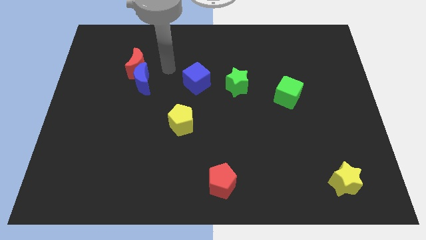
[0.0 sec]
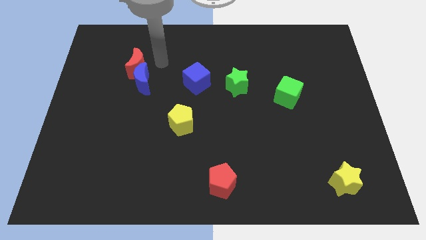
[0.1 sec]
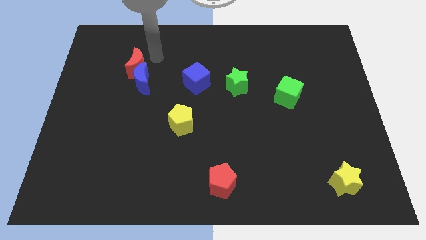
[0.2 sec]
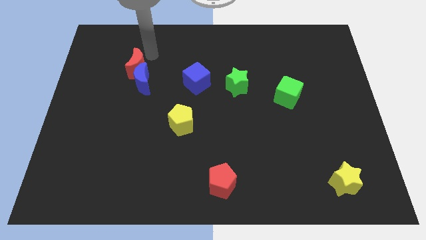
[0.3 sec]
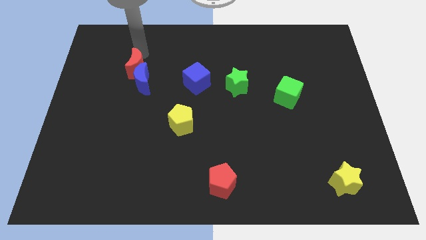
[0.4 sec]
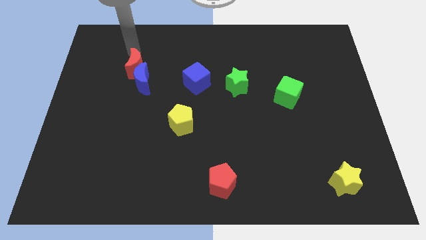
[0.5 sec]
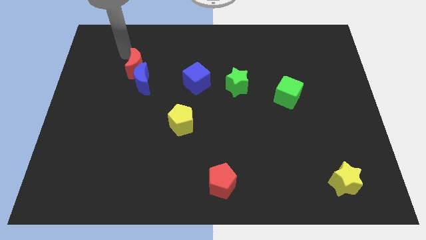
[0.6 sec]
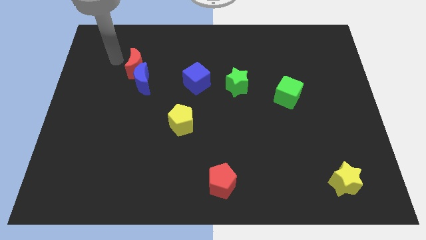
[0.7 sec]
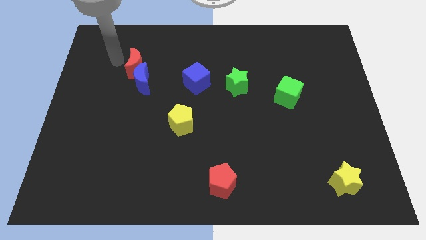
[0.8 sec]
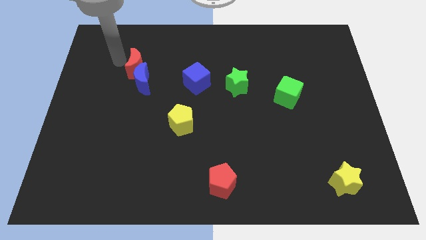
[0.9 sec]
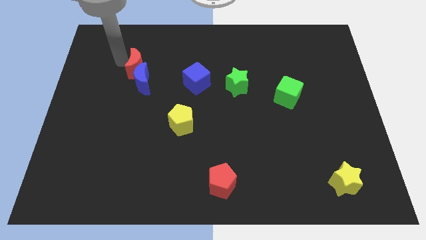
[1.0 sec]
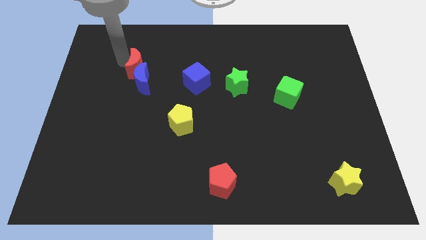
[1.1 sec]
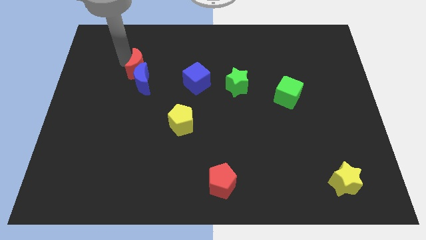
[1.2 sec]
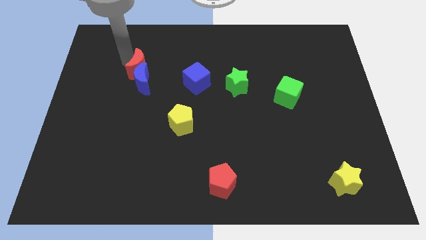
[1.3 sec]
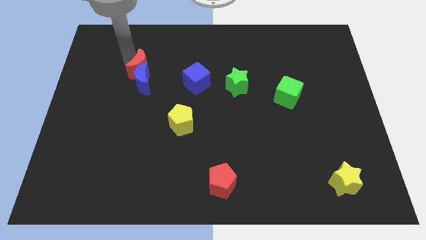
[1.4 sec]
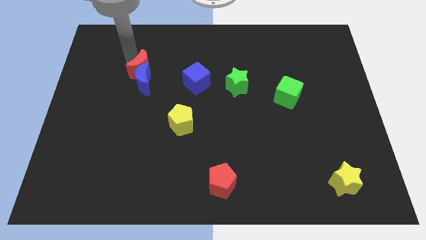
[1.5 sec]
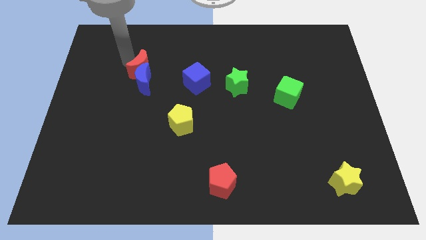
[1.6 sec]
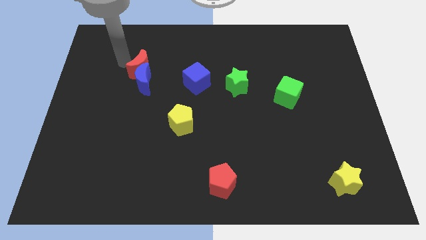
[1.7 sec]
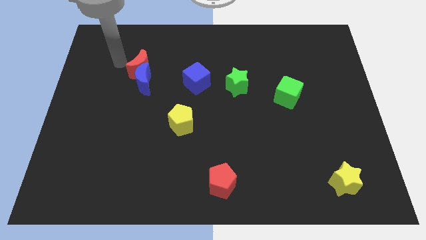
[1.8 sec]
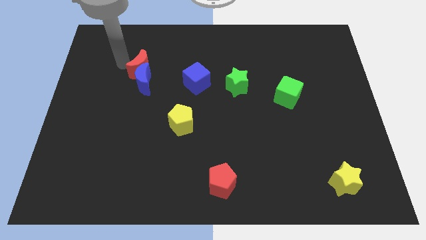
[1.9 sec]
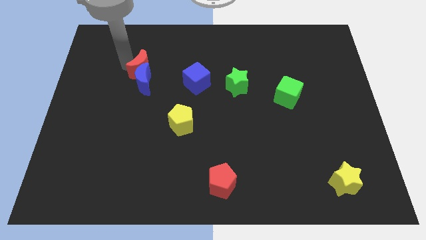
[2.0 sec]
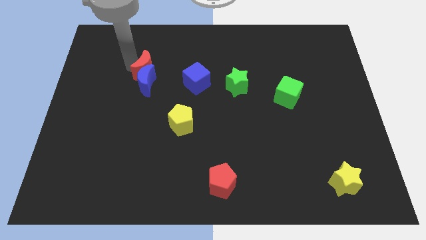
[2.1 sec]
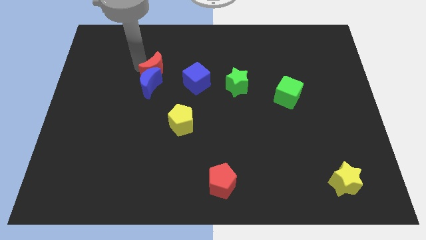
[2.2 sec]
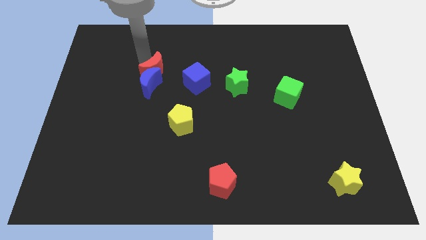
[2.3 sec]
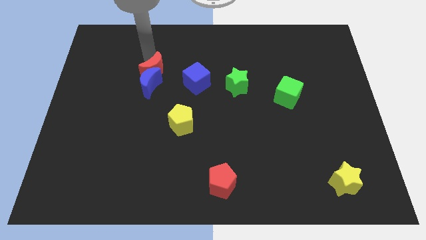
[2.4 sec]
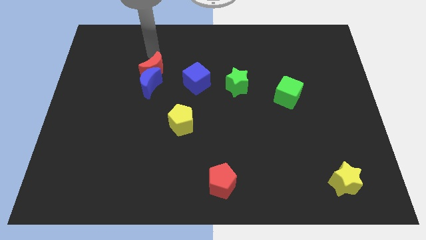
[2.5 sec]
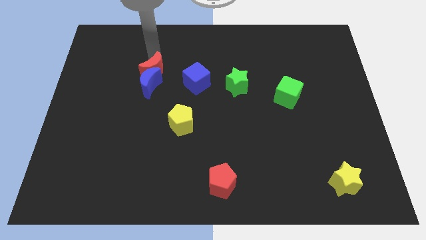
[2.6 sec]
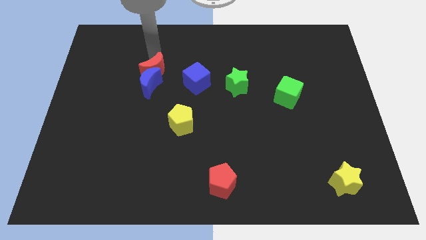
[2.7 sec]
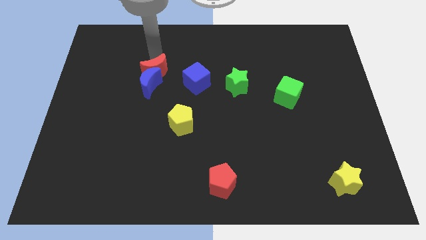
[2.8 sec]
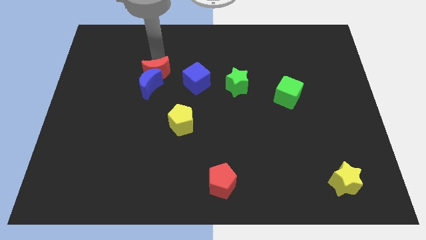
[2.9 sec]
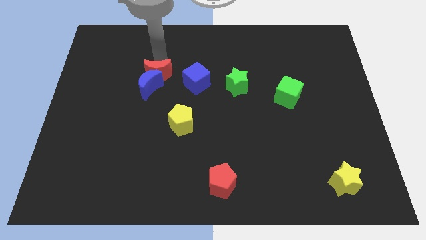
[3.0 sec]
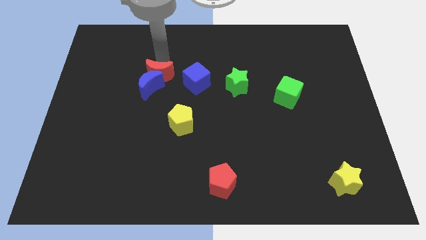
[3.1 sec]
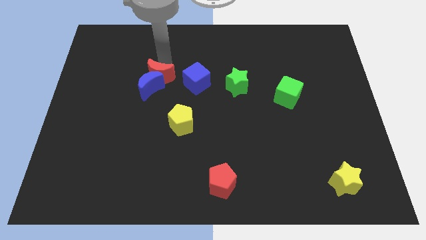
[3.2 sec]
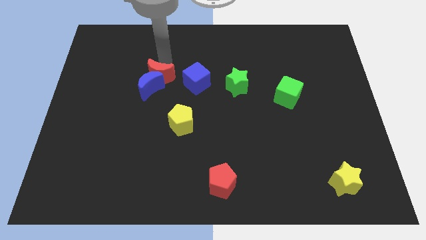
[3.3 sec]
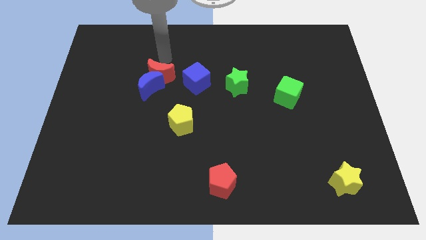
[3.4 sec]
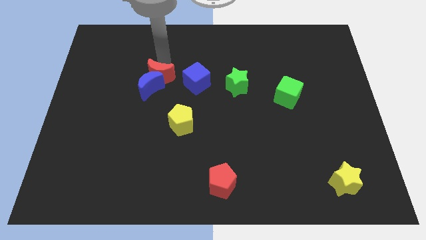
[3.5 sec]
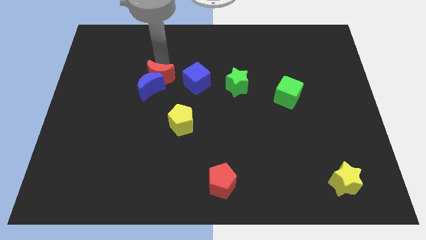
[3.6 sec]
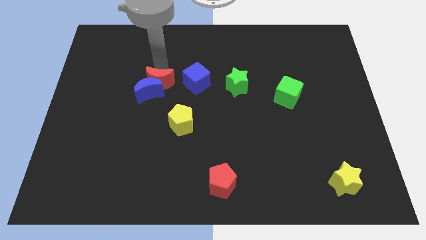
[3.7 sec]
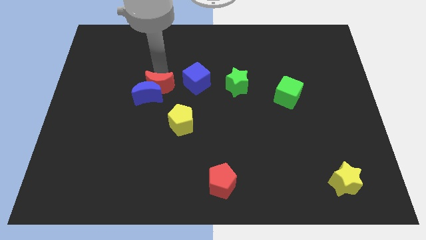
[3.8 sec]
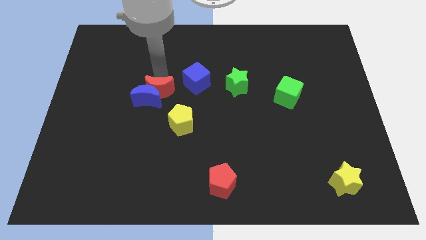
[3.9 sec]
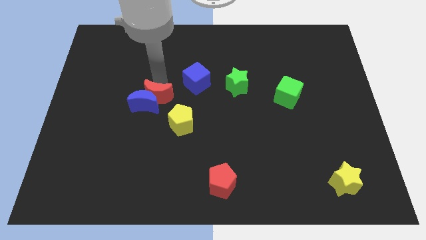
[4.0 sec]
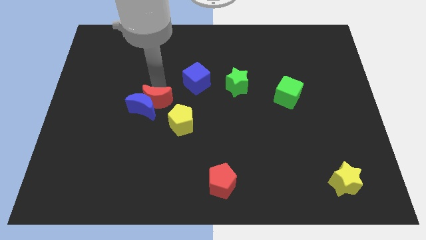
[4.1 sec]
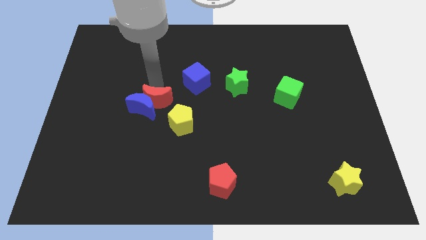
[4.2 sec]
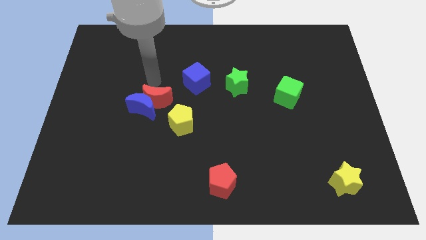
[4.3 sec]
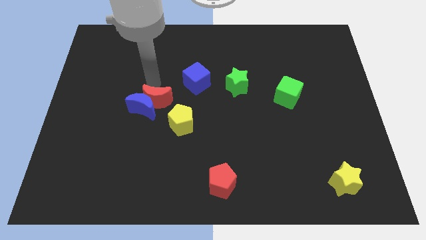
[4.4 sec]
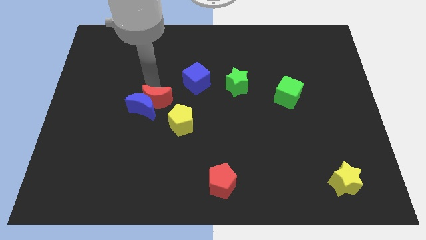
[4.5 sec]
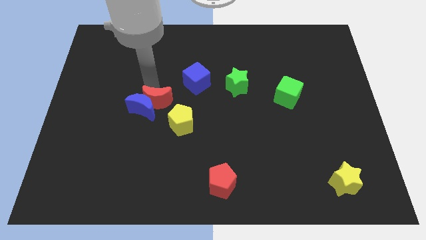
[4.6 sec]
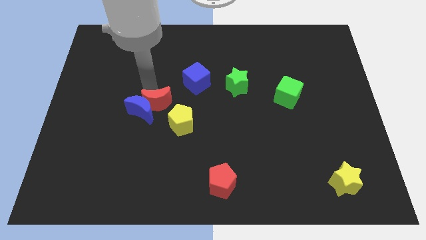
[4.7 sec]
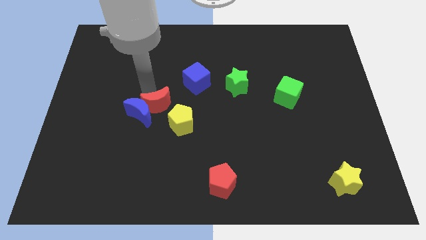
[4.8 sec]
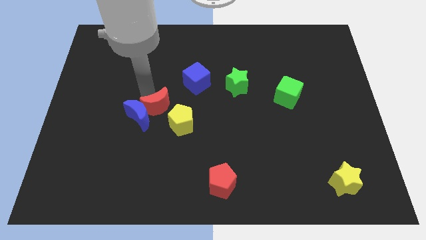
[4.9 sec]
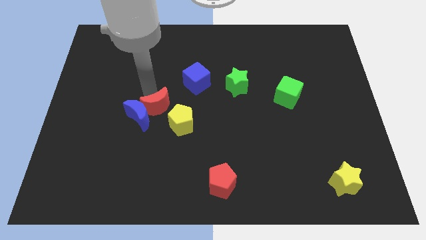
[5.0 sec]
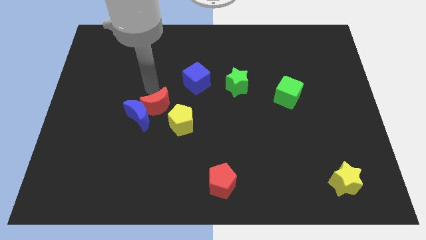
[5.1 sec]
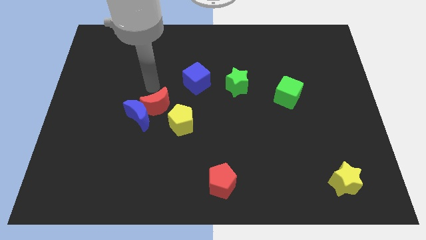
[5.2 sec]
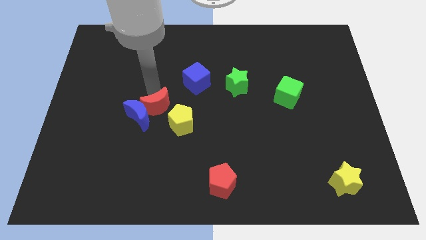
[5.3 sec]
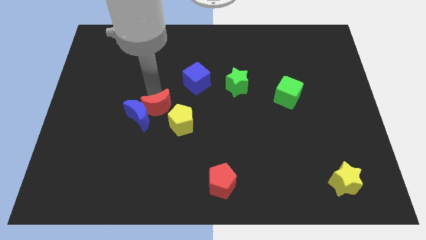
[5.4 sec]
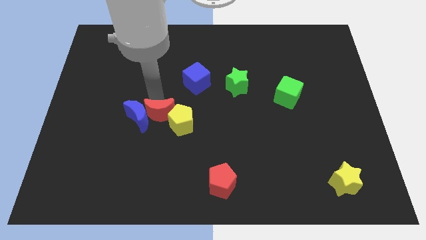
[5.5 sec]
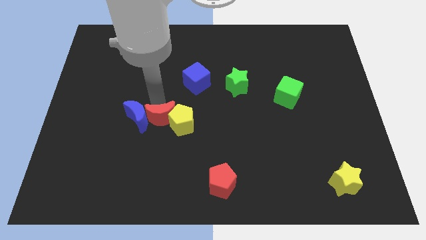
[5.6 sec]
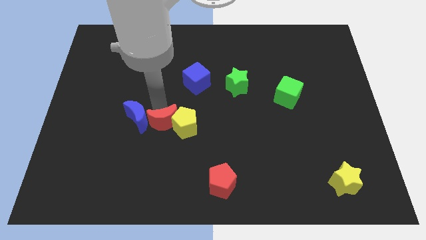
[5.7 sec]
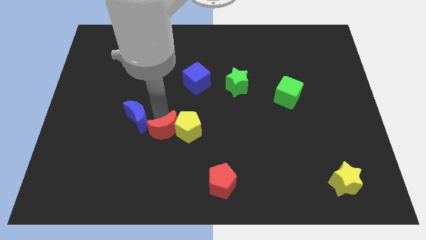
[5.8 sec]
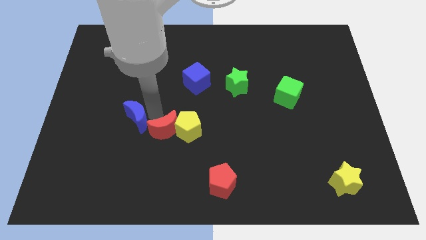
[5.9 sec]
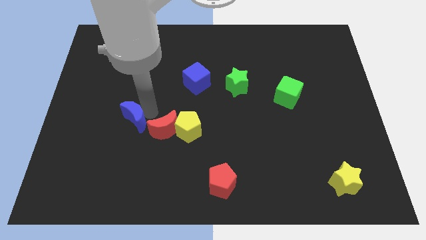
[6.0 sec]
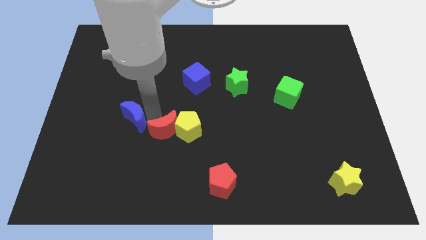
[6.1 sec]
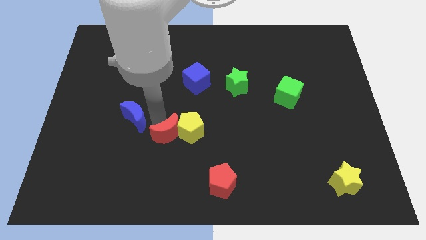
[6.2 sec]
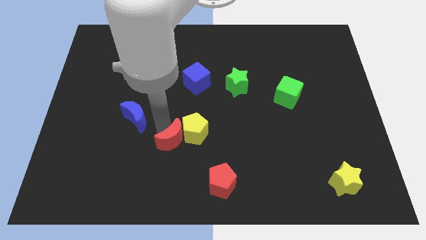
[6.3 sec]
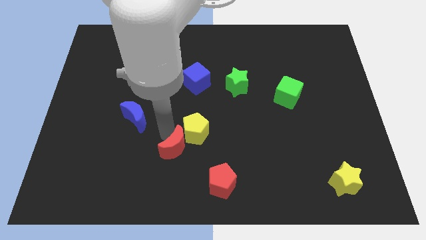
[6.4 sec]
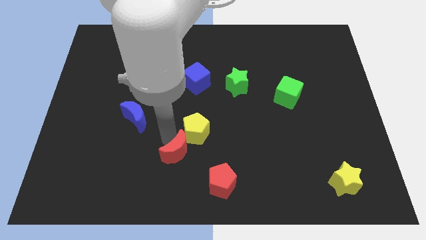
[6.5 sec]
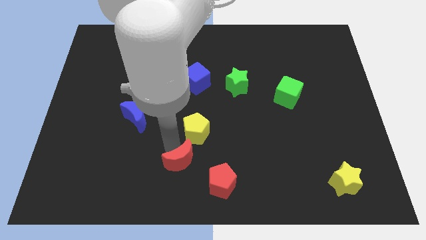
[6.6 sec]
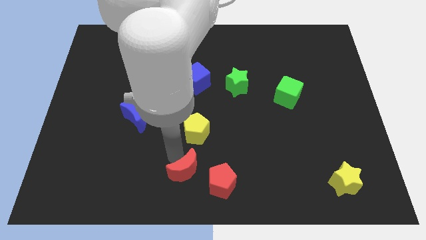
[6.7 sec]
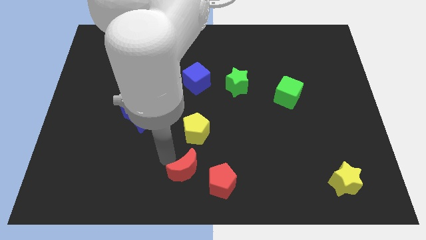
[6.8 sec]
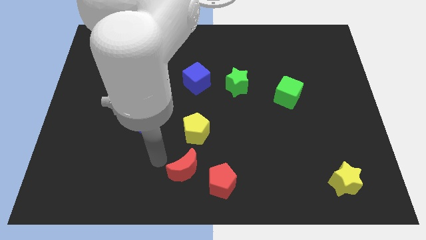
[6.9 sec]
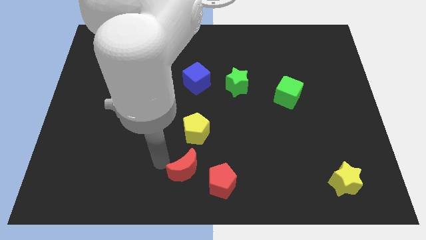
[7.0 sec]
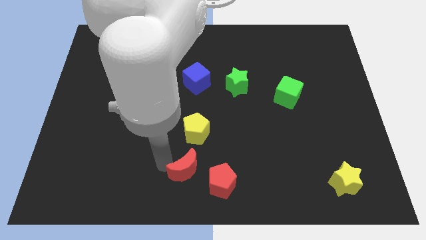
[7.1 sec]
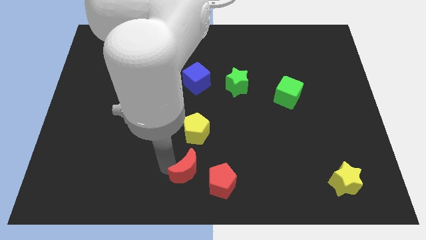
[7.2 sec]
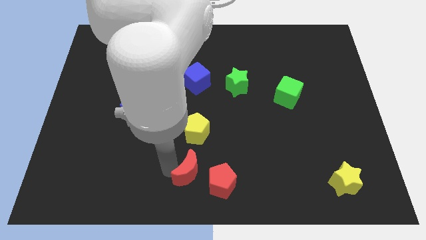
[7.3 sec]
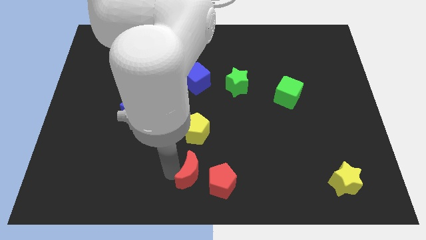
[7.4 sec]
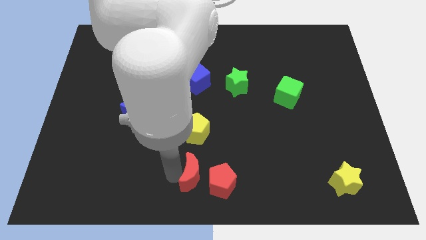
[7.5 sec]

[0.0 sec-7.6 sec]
move the red moon towards the red pentagon
